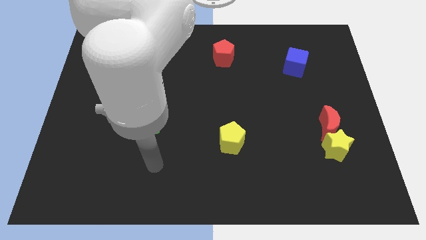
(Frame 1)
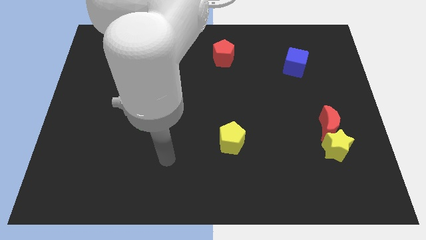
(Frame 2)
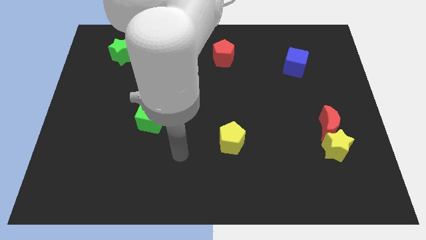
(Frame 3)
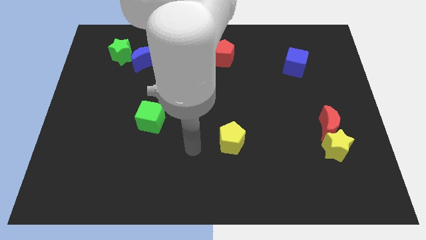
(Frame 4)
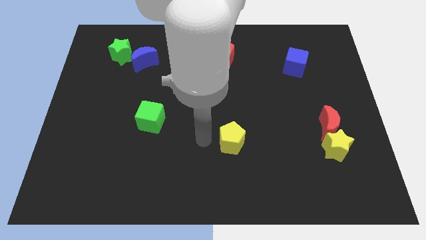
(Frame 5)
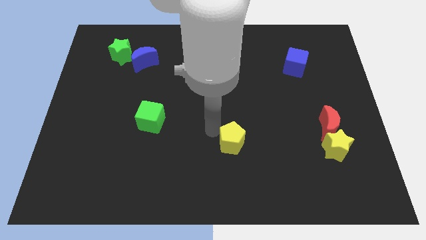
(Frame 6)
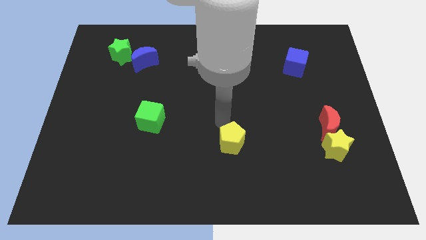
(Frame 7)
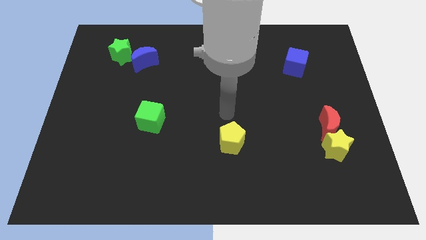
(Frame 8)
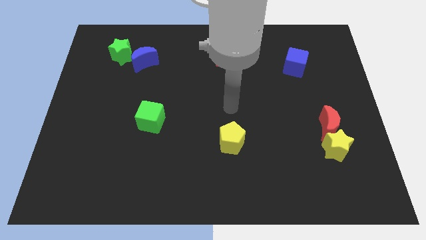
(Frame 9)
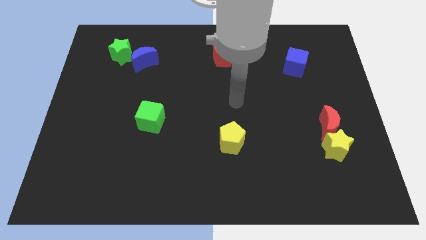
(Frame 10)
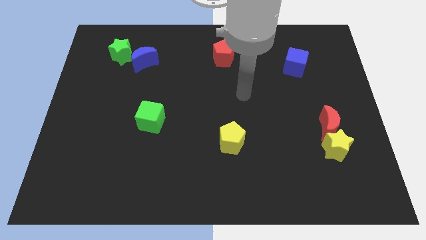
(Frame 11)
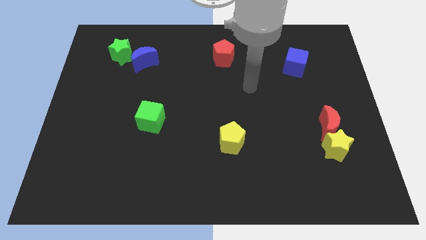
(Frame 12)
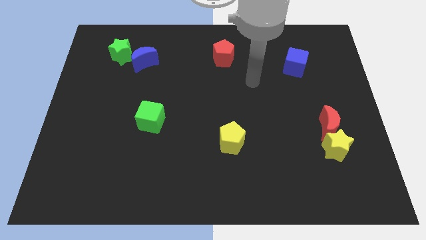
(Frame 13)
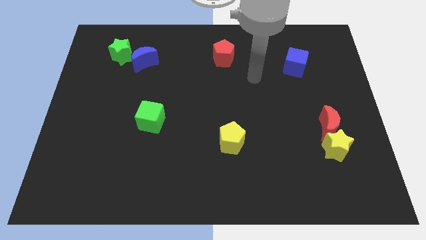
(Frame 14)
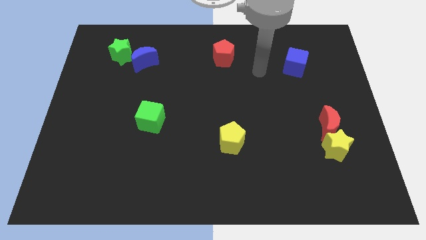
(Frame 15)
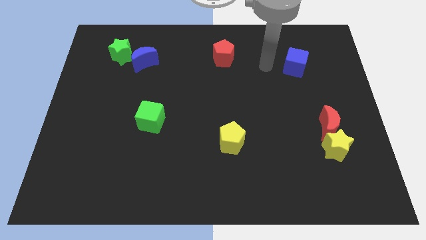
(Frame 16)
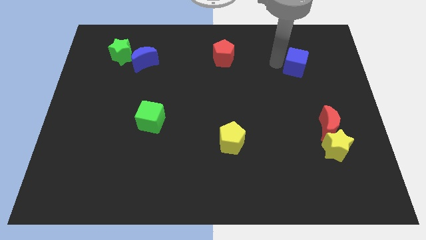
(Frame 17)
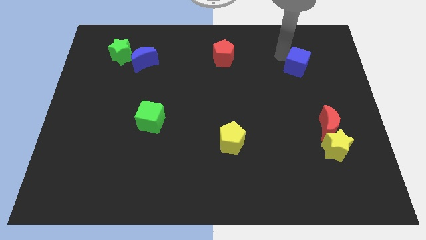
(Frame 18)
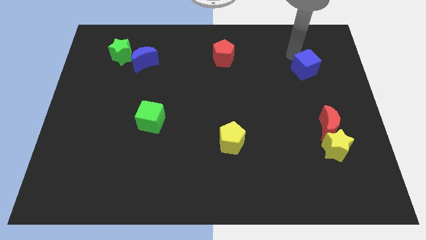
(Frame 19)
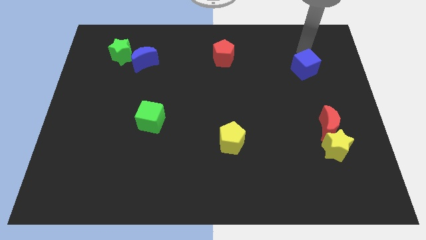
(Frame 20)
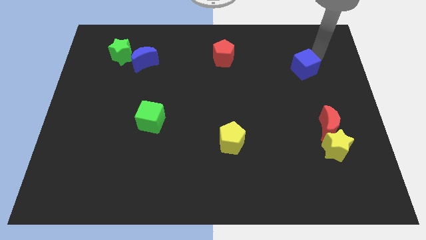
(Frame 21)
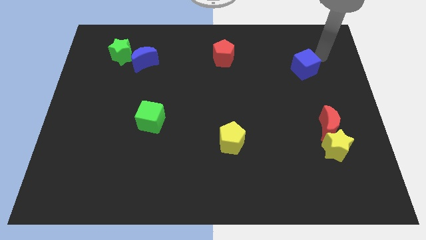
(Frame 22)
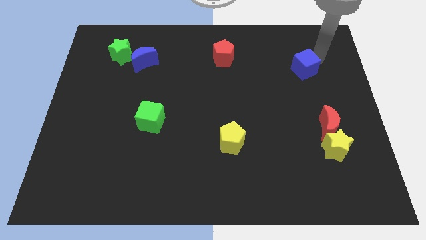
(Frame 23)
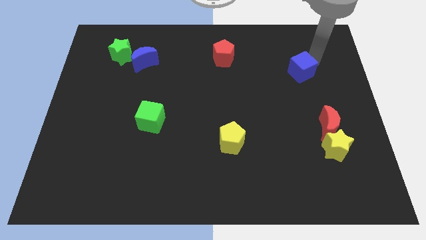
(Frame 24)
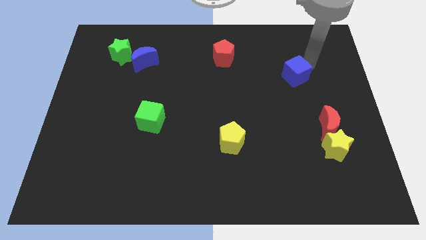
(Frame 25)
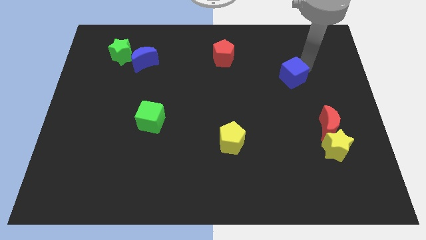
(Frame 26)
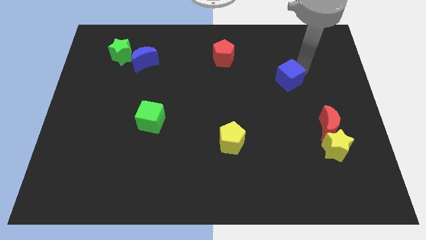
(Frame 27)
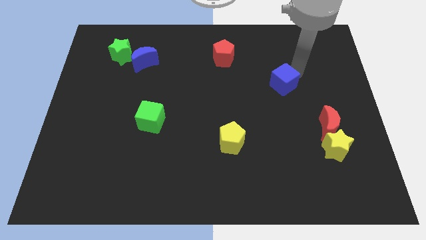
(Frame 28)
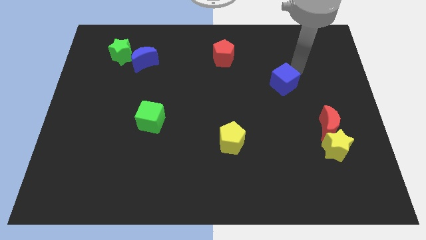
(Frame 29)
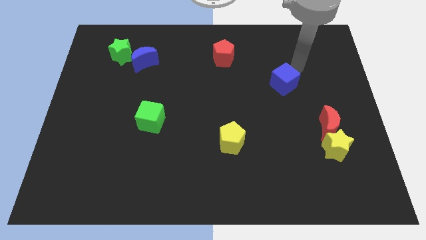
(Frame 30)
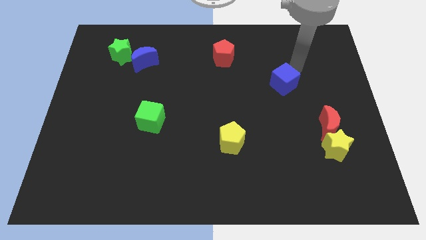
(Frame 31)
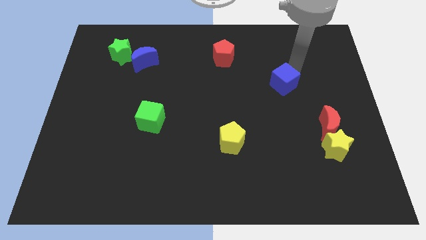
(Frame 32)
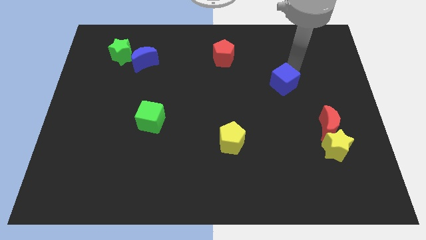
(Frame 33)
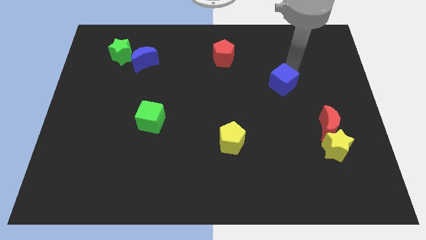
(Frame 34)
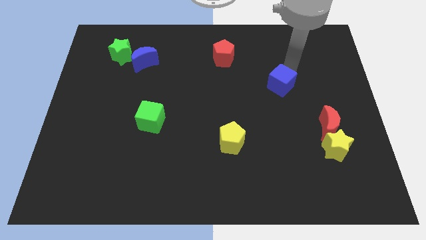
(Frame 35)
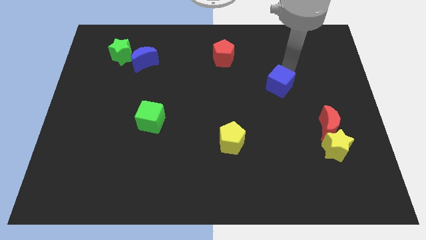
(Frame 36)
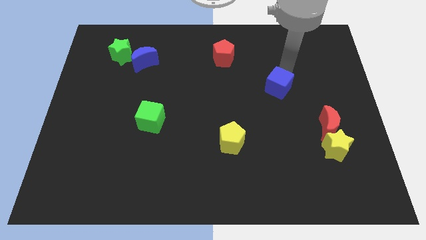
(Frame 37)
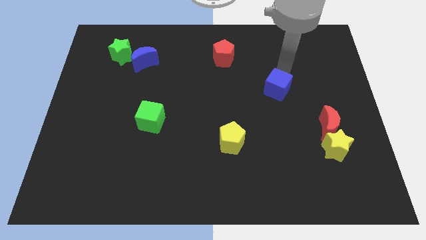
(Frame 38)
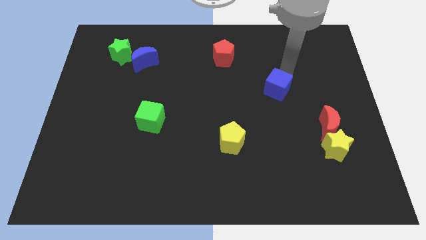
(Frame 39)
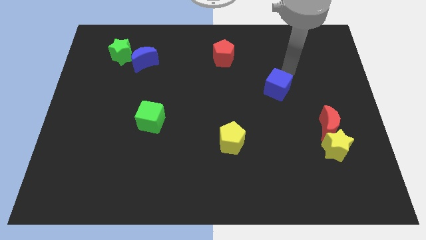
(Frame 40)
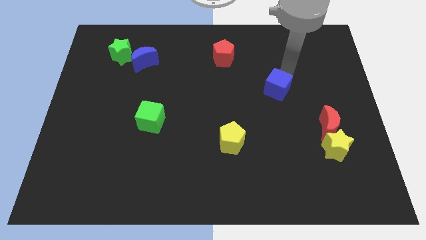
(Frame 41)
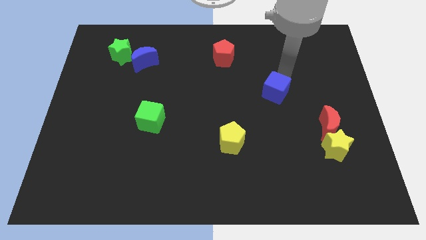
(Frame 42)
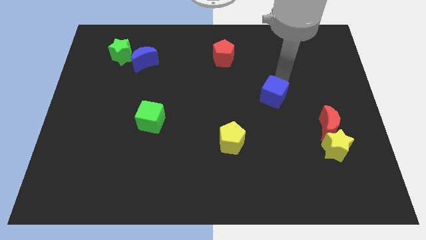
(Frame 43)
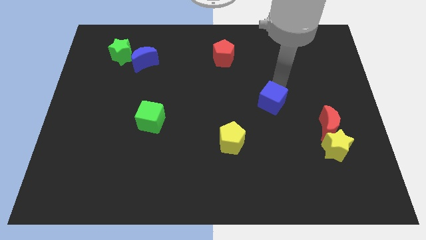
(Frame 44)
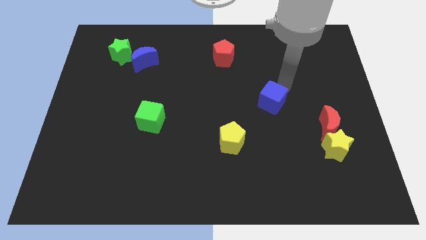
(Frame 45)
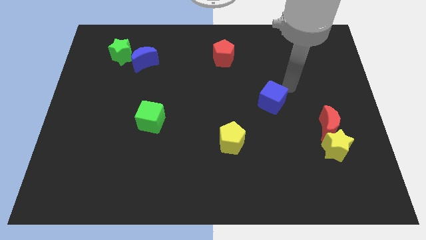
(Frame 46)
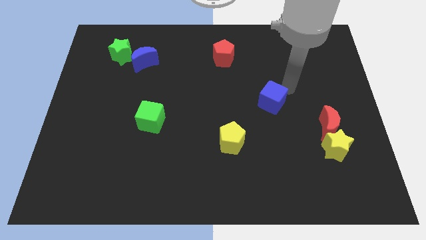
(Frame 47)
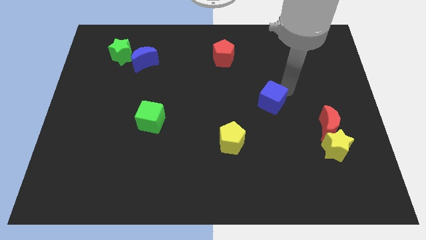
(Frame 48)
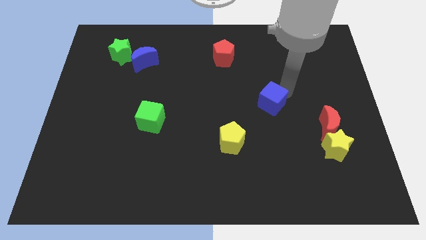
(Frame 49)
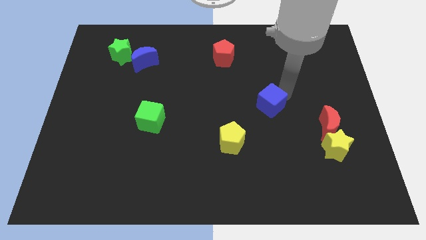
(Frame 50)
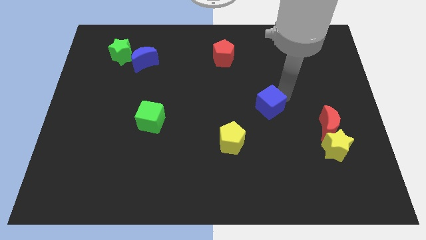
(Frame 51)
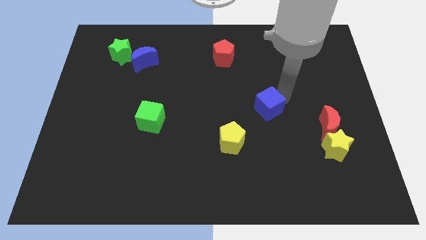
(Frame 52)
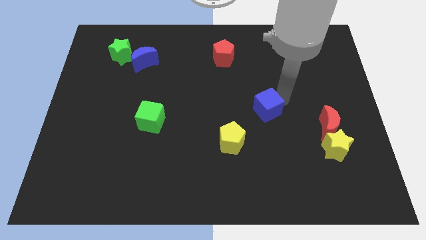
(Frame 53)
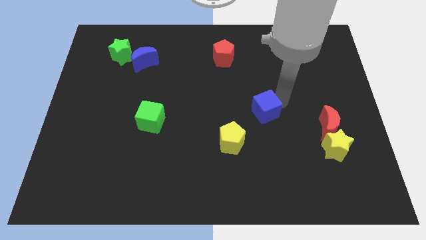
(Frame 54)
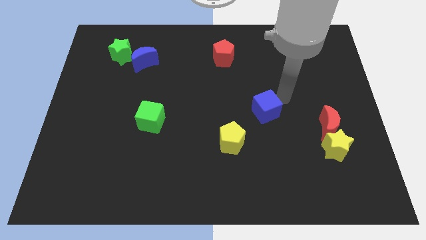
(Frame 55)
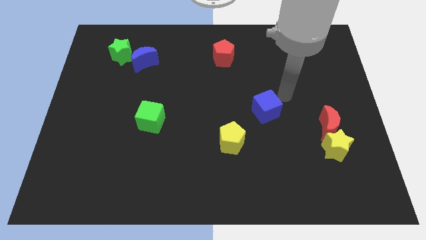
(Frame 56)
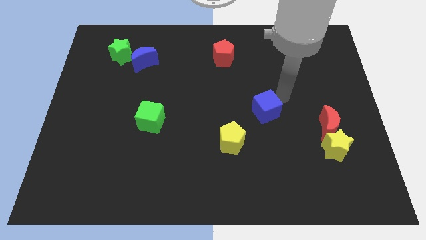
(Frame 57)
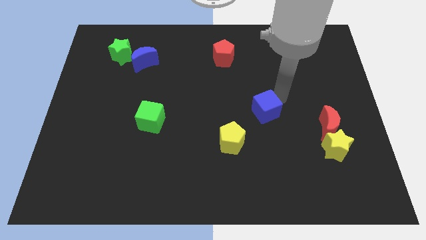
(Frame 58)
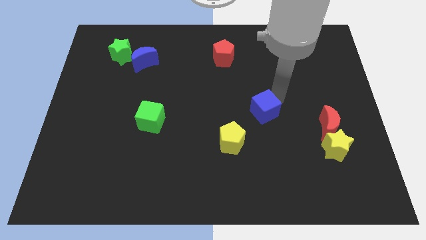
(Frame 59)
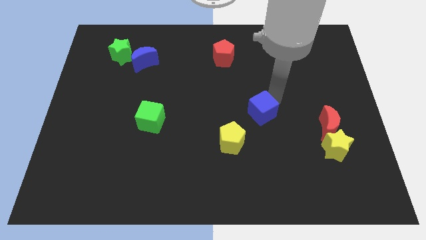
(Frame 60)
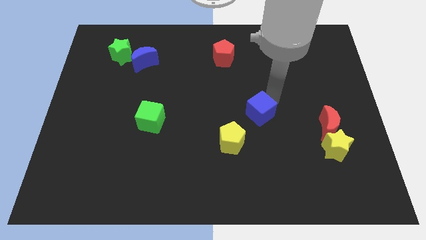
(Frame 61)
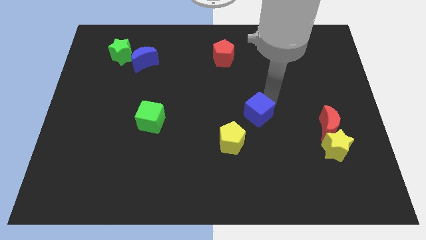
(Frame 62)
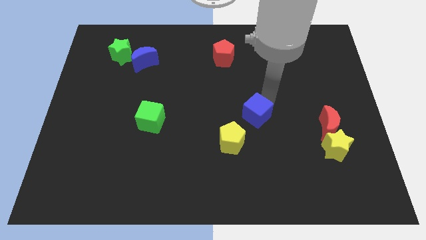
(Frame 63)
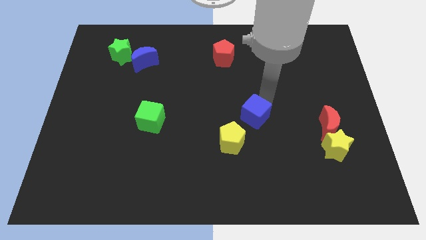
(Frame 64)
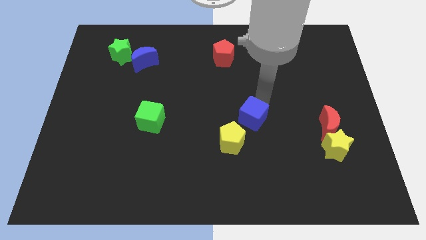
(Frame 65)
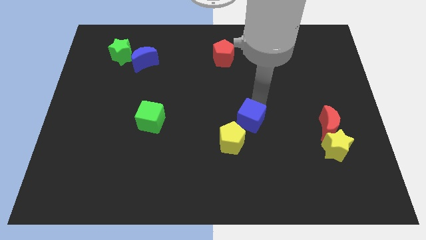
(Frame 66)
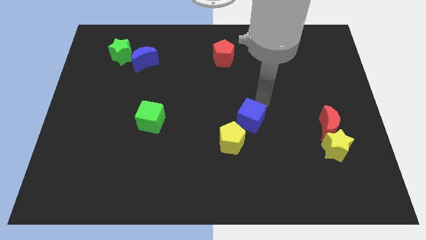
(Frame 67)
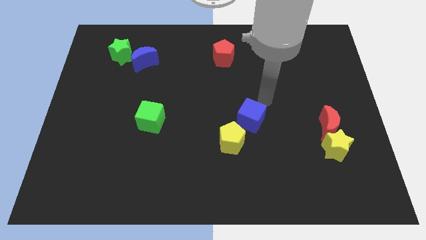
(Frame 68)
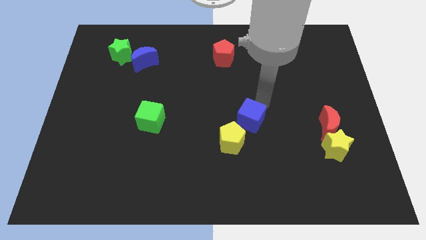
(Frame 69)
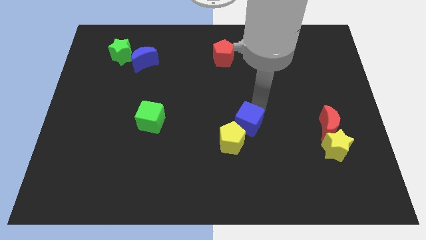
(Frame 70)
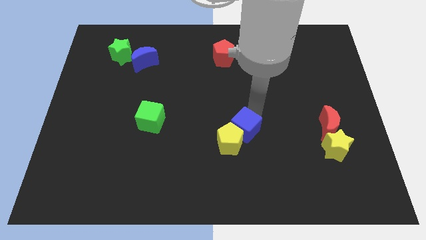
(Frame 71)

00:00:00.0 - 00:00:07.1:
push the blue cube towards the yellow pentagon
